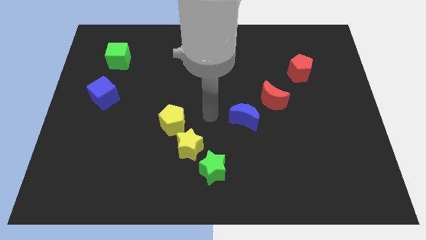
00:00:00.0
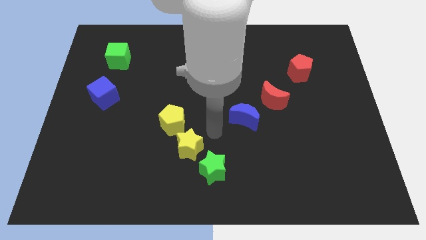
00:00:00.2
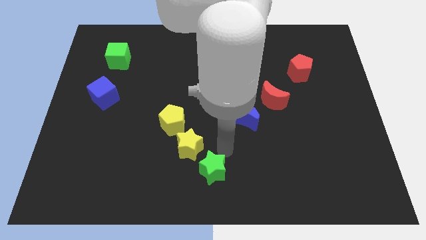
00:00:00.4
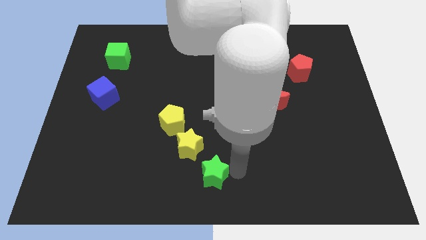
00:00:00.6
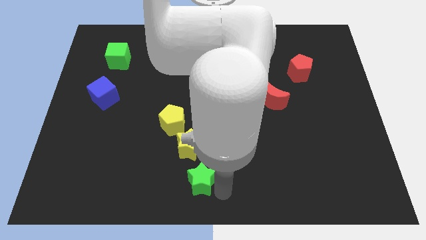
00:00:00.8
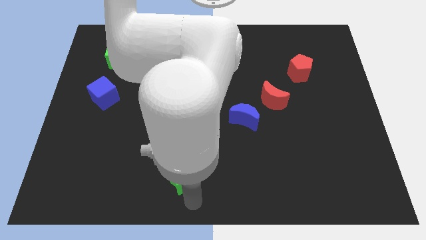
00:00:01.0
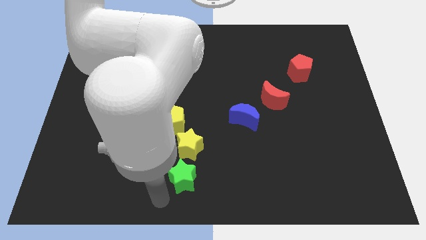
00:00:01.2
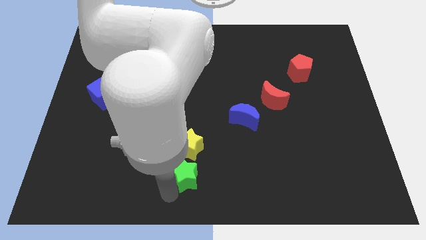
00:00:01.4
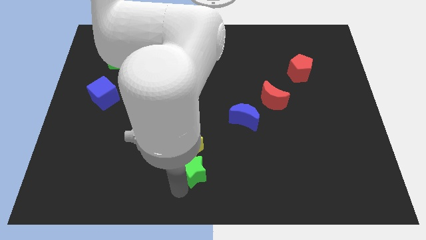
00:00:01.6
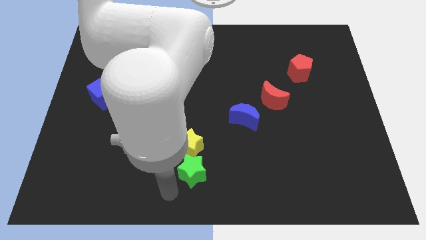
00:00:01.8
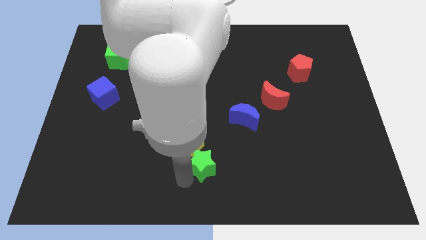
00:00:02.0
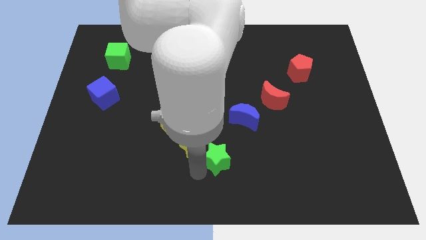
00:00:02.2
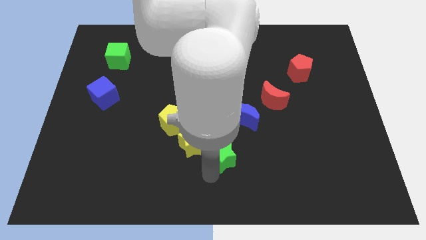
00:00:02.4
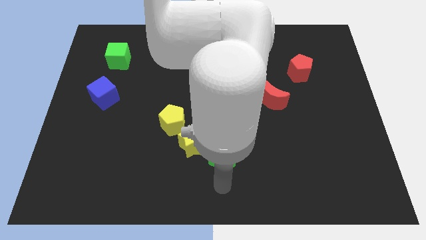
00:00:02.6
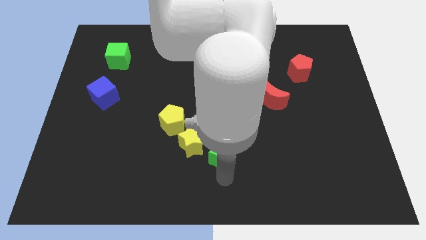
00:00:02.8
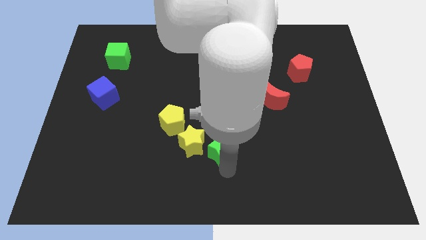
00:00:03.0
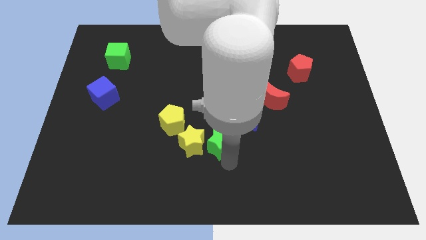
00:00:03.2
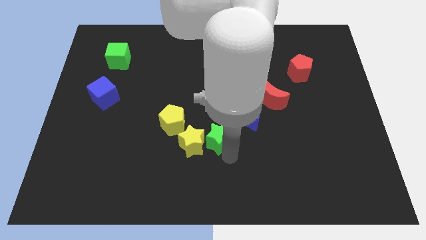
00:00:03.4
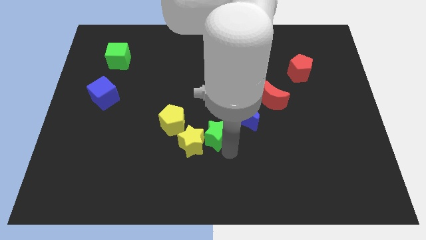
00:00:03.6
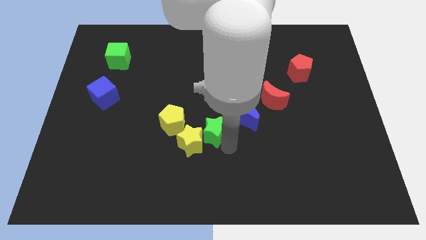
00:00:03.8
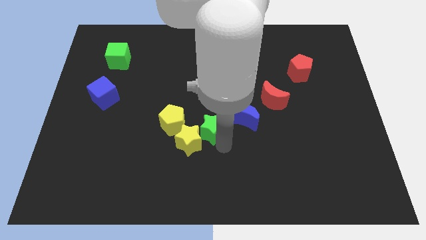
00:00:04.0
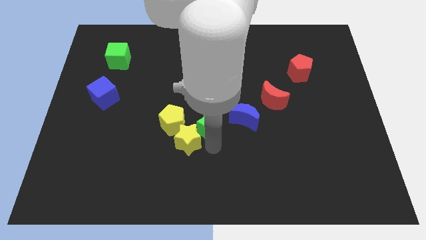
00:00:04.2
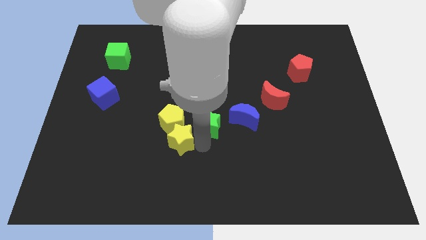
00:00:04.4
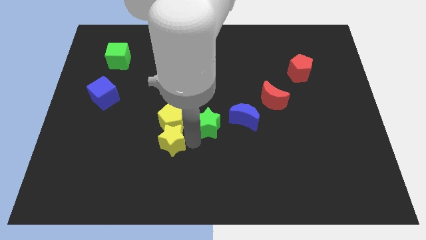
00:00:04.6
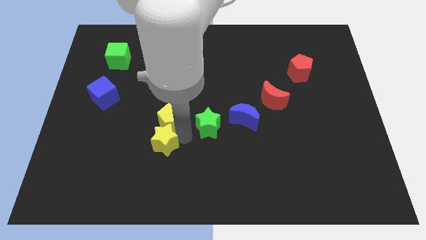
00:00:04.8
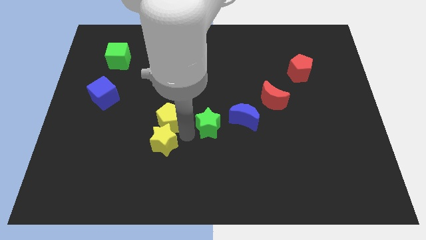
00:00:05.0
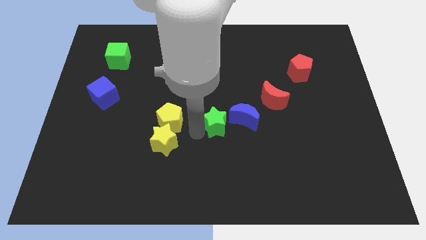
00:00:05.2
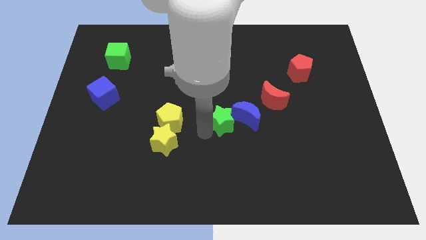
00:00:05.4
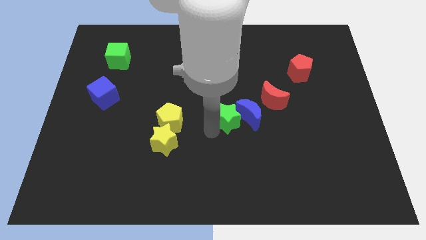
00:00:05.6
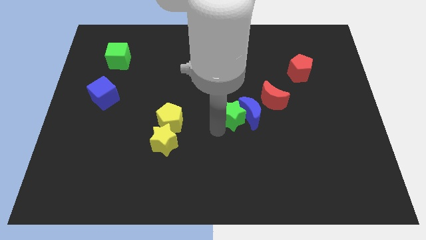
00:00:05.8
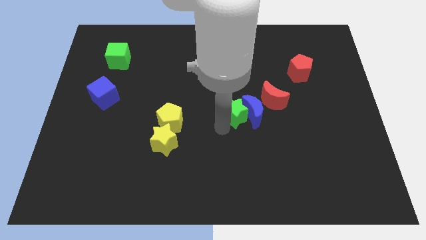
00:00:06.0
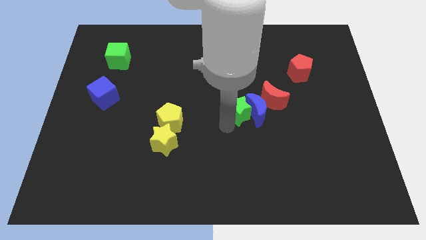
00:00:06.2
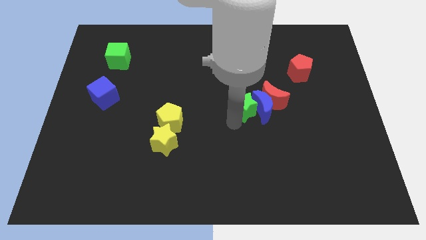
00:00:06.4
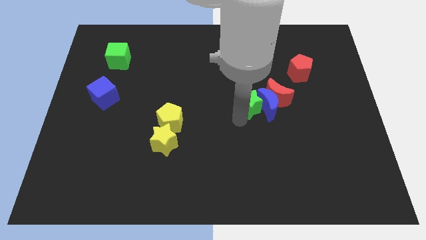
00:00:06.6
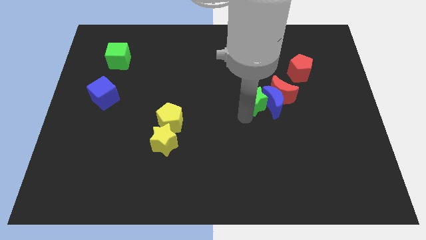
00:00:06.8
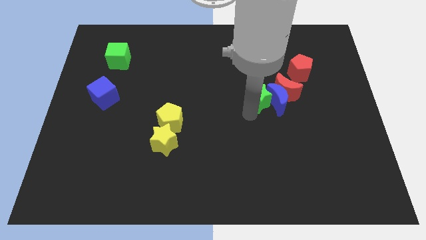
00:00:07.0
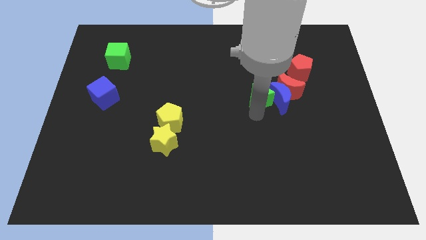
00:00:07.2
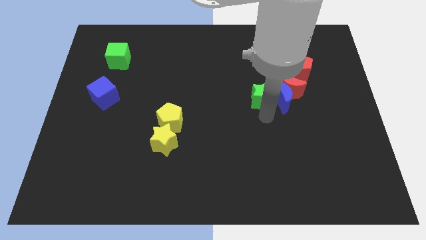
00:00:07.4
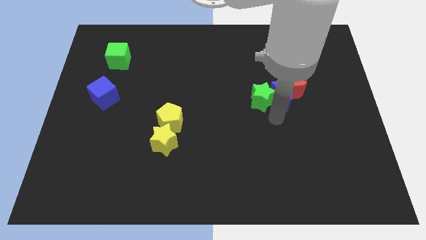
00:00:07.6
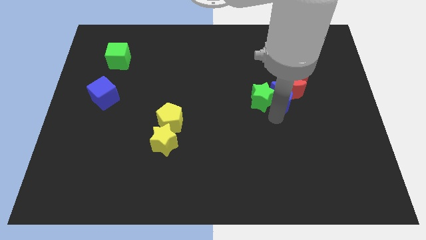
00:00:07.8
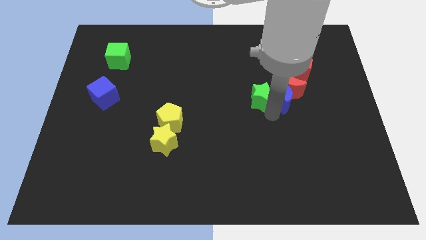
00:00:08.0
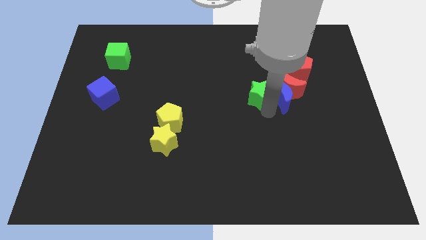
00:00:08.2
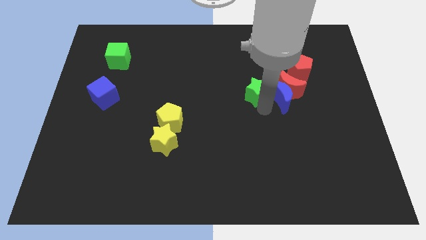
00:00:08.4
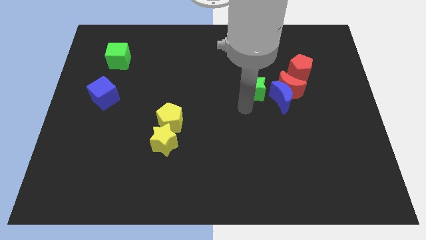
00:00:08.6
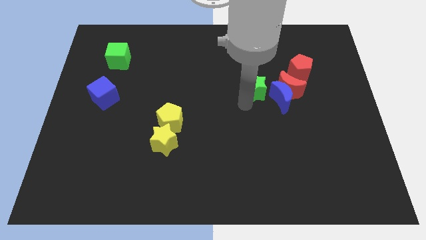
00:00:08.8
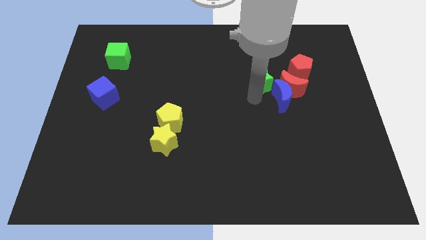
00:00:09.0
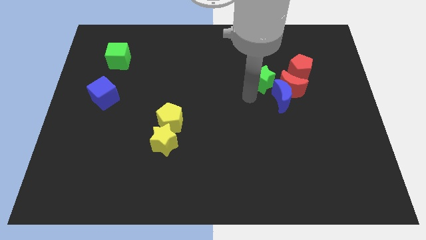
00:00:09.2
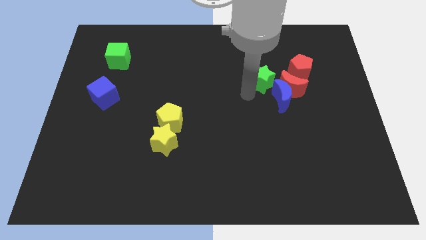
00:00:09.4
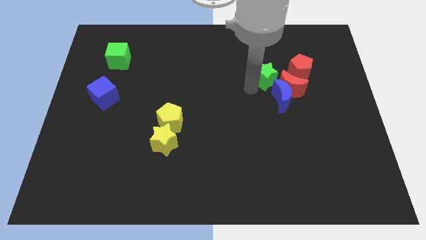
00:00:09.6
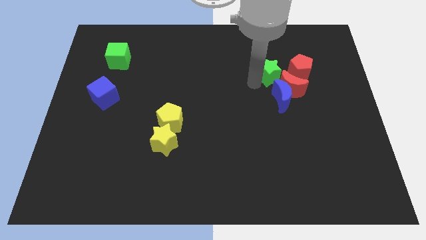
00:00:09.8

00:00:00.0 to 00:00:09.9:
put the green star to the top of the red moon

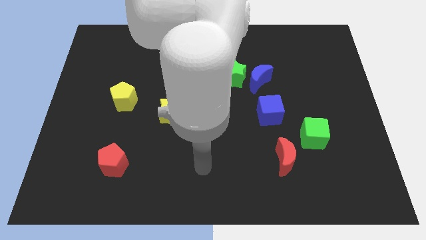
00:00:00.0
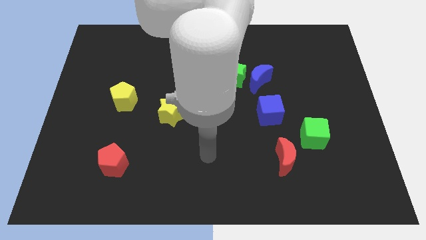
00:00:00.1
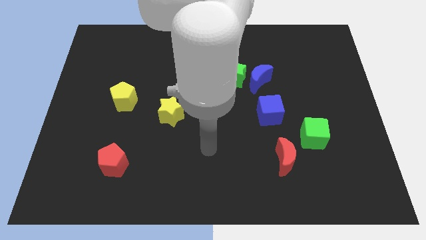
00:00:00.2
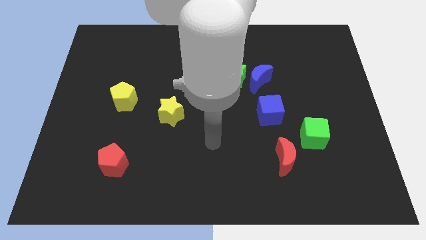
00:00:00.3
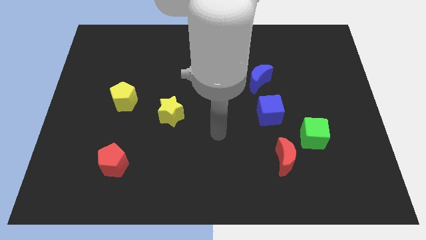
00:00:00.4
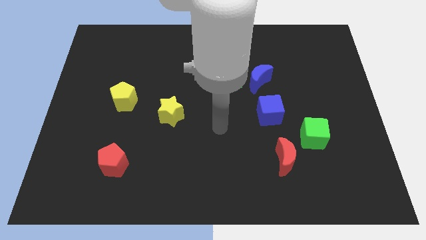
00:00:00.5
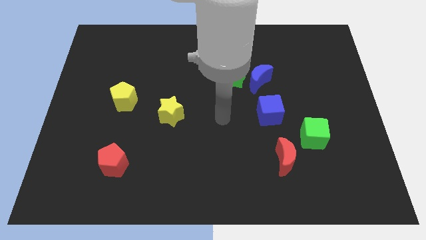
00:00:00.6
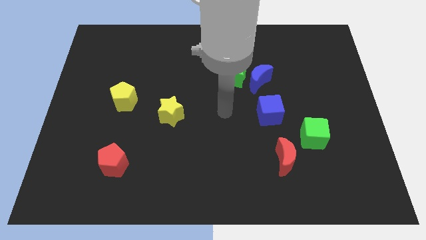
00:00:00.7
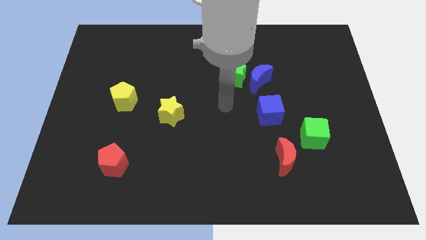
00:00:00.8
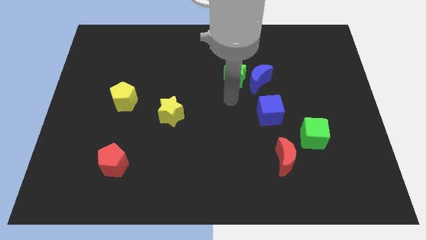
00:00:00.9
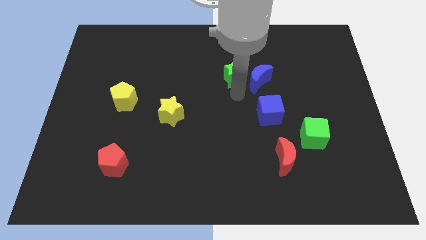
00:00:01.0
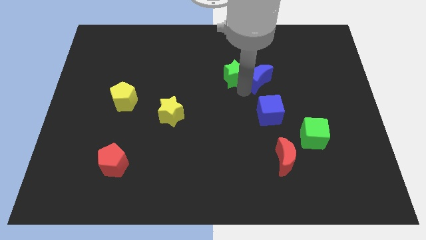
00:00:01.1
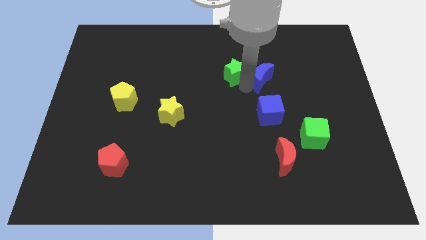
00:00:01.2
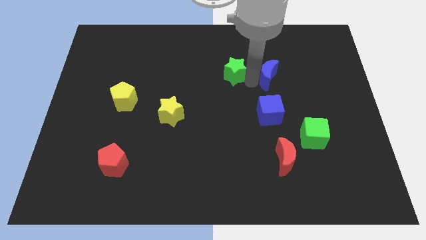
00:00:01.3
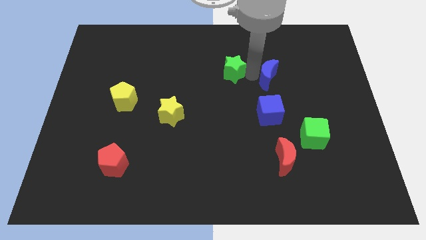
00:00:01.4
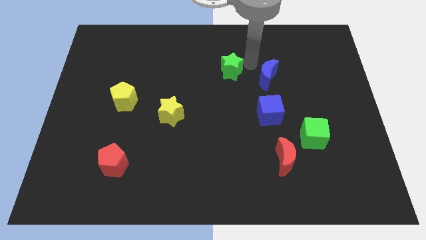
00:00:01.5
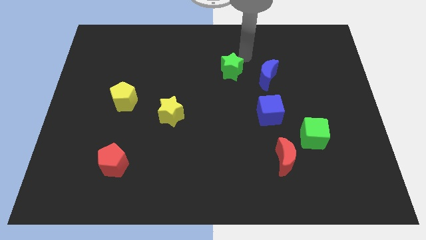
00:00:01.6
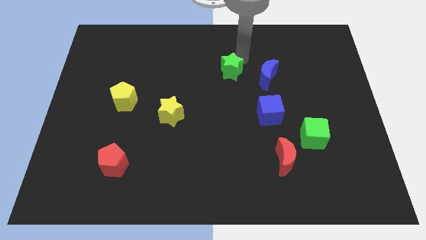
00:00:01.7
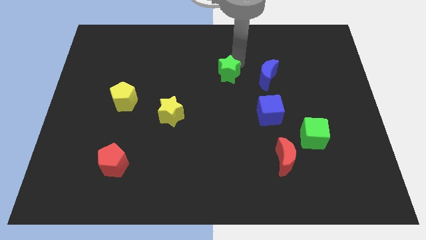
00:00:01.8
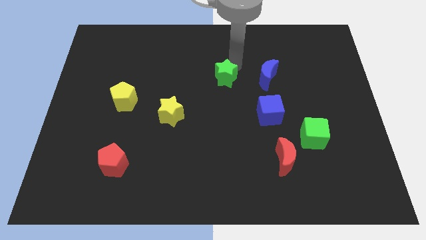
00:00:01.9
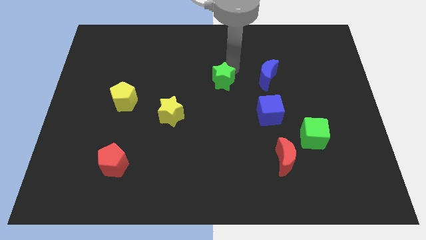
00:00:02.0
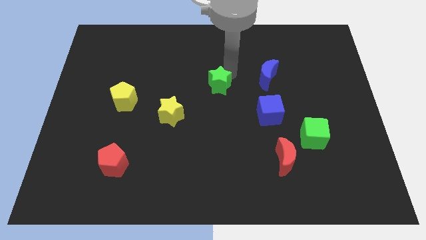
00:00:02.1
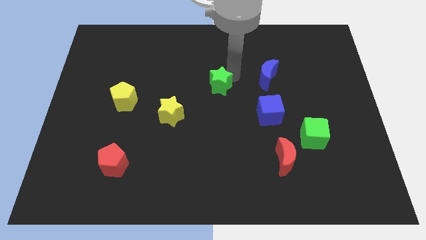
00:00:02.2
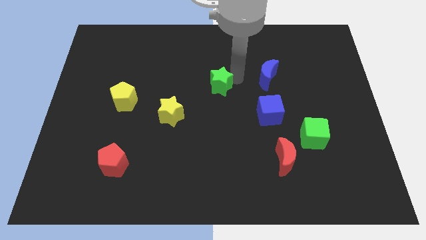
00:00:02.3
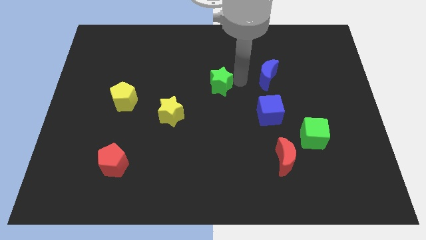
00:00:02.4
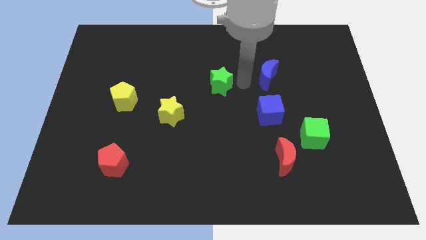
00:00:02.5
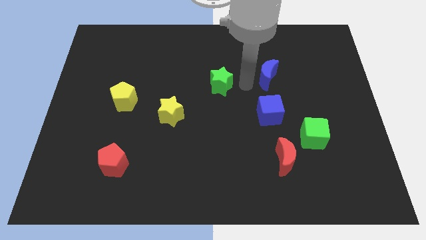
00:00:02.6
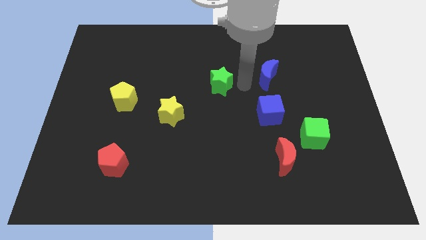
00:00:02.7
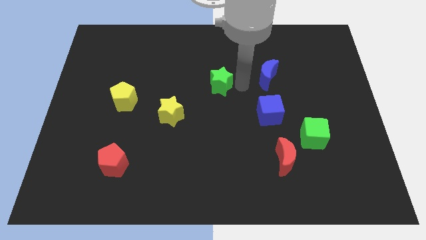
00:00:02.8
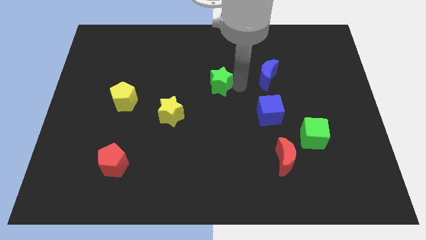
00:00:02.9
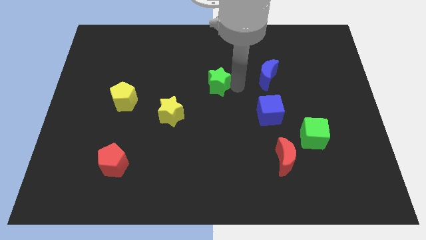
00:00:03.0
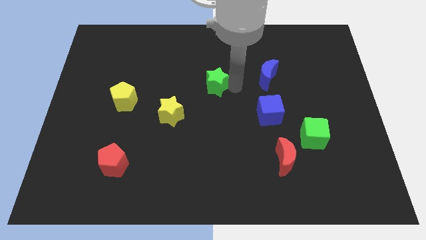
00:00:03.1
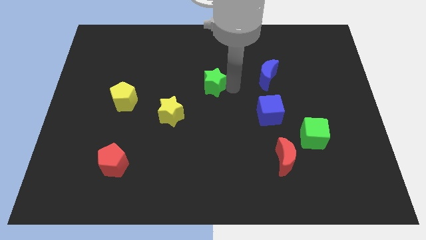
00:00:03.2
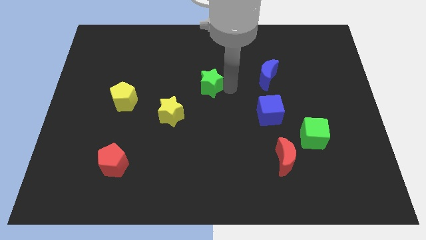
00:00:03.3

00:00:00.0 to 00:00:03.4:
push the green star diagonally up and to the right of the yellow star

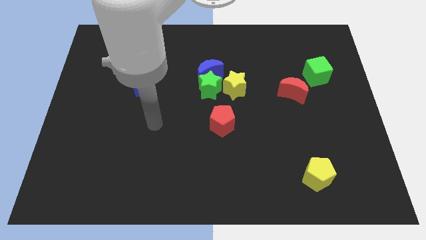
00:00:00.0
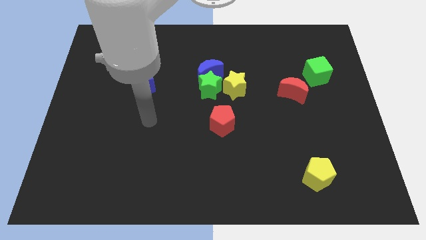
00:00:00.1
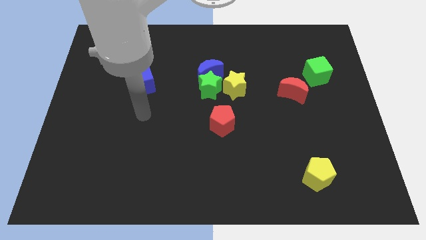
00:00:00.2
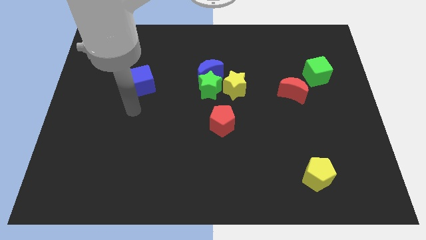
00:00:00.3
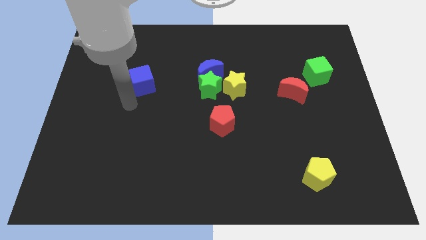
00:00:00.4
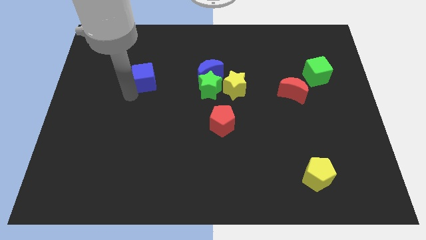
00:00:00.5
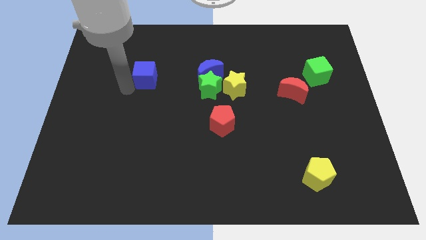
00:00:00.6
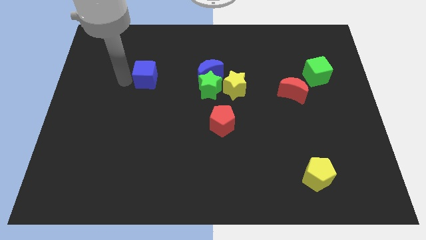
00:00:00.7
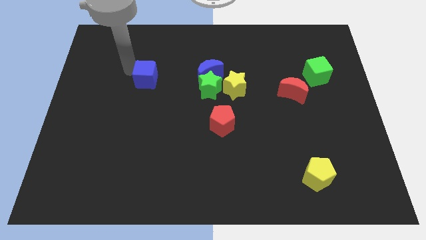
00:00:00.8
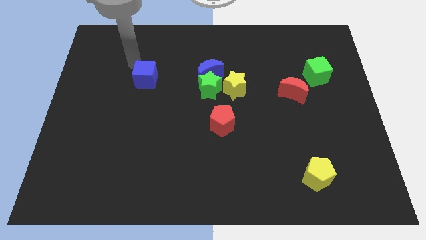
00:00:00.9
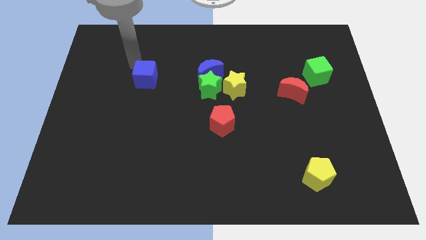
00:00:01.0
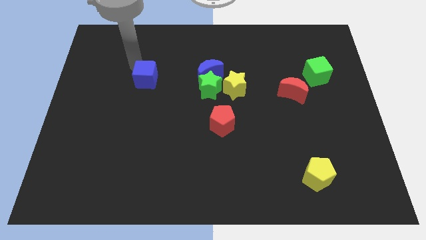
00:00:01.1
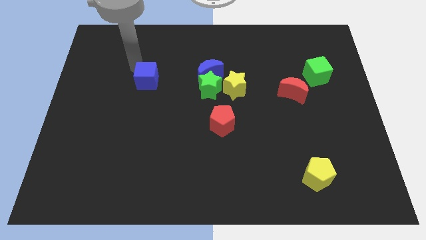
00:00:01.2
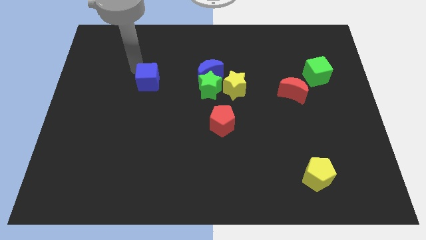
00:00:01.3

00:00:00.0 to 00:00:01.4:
put the blue cube just left of the green star
